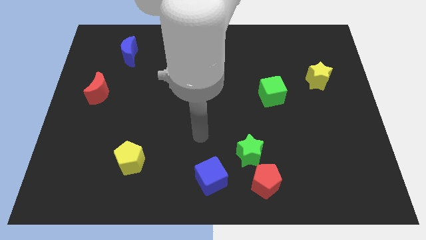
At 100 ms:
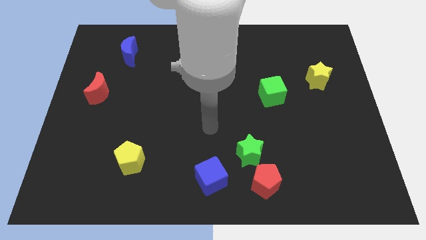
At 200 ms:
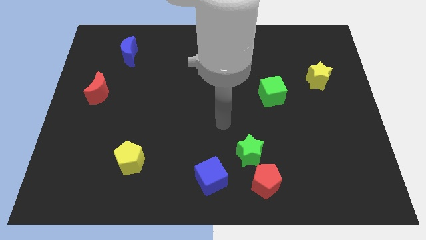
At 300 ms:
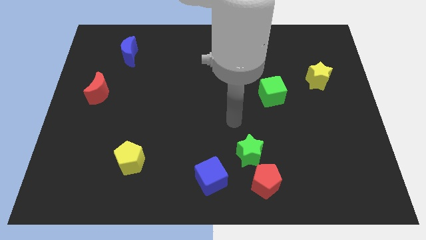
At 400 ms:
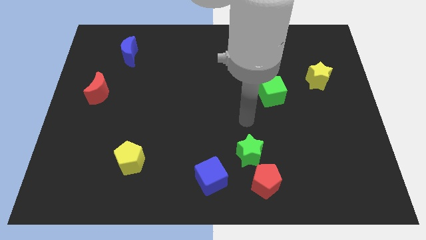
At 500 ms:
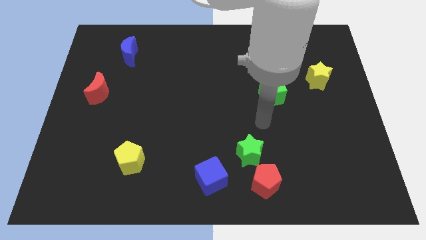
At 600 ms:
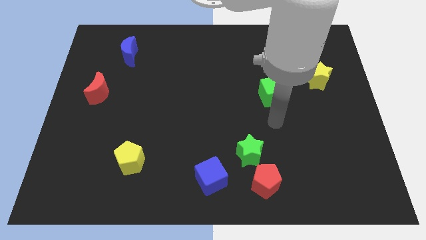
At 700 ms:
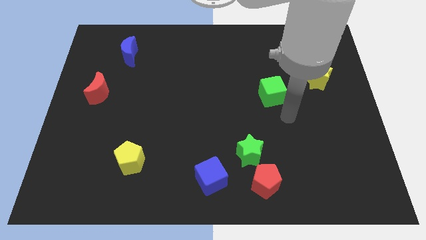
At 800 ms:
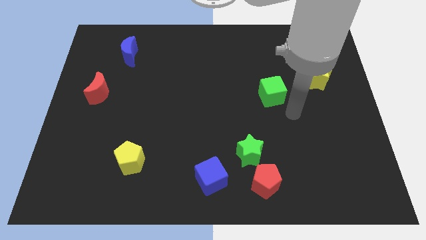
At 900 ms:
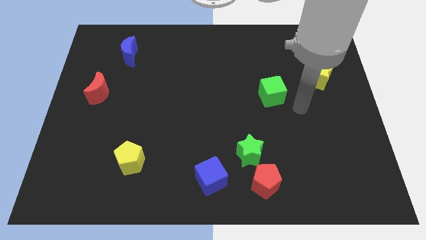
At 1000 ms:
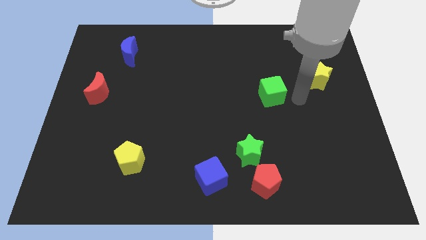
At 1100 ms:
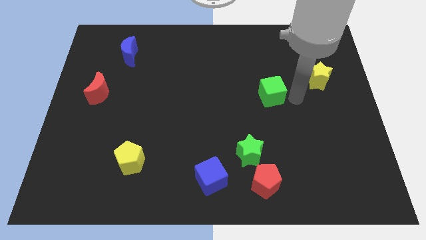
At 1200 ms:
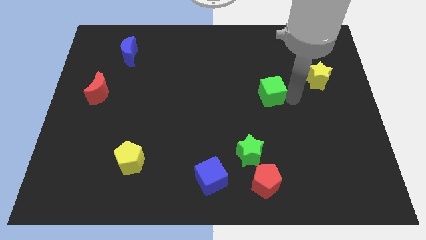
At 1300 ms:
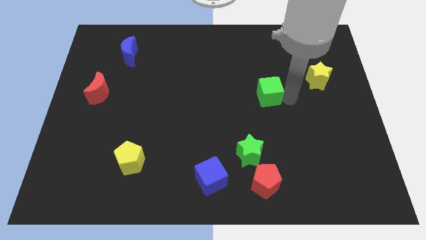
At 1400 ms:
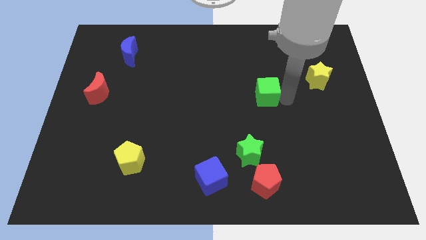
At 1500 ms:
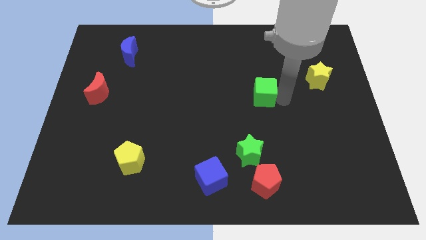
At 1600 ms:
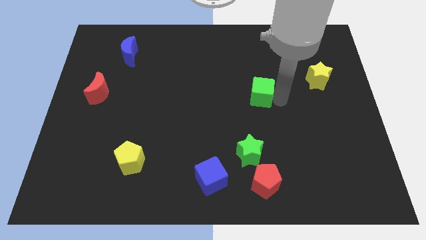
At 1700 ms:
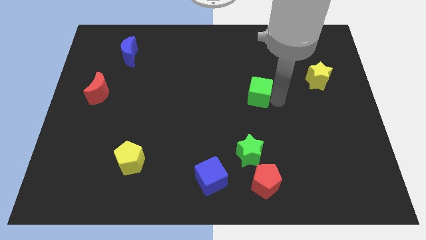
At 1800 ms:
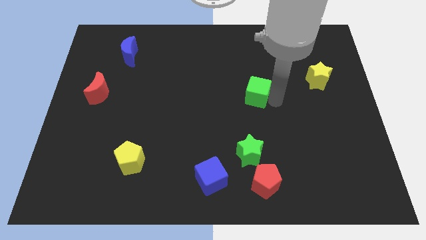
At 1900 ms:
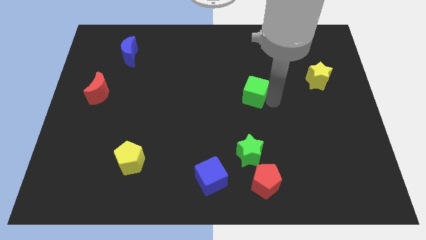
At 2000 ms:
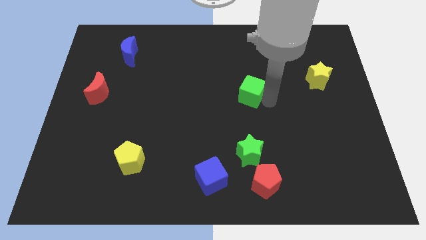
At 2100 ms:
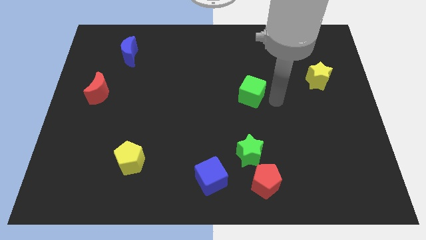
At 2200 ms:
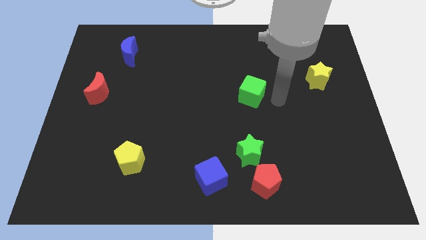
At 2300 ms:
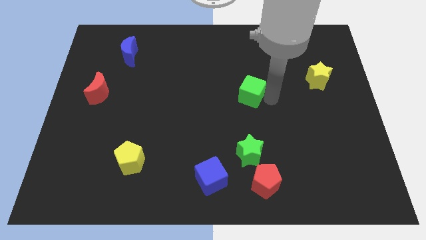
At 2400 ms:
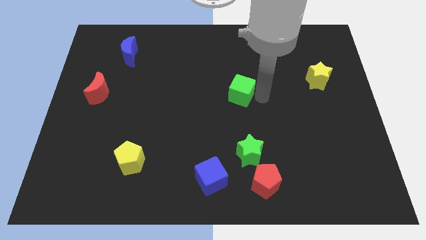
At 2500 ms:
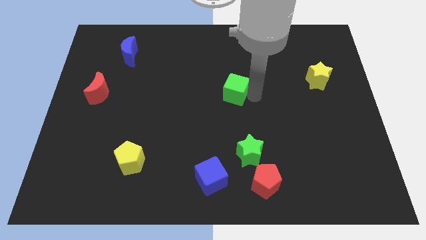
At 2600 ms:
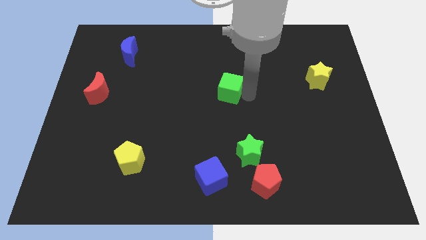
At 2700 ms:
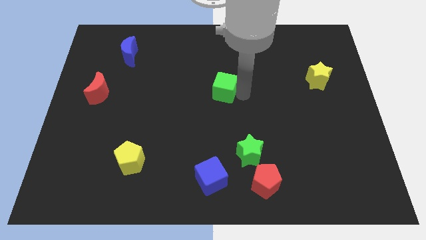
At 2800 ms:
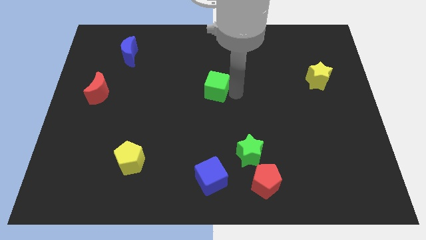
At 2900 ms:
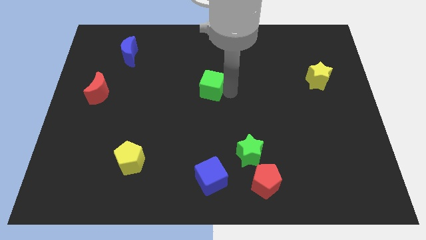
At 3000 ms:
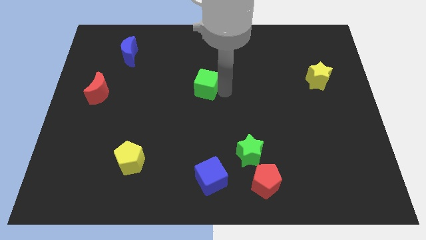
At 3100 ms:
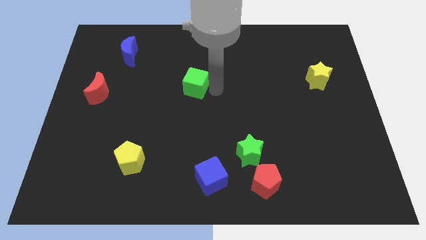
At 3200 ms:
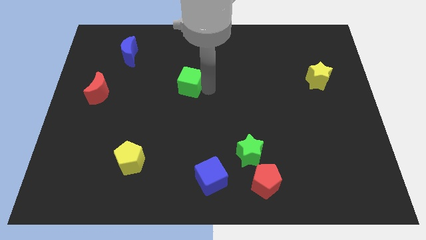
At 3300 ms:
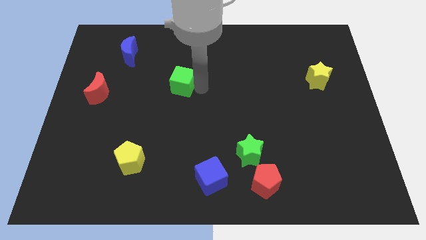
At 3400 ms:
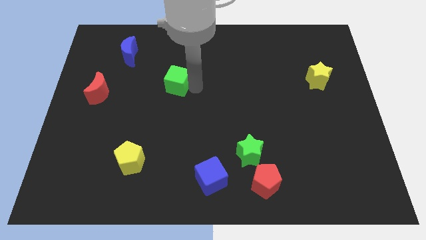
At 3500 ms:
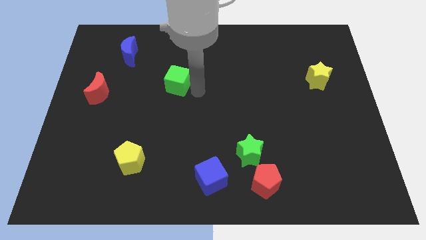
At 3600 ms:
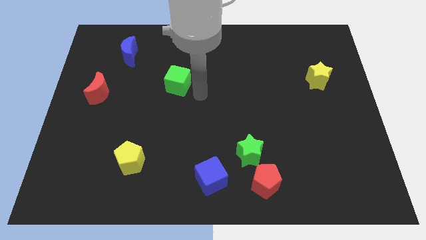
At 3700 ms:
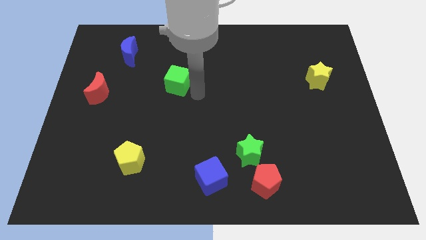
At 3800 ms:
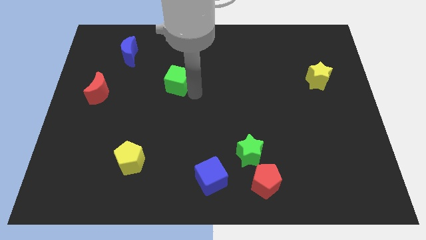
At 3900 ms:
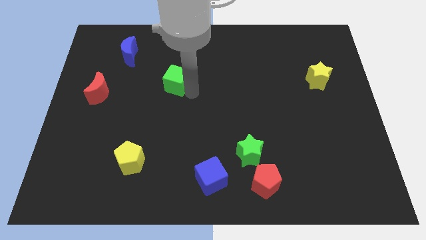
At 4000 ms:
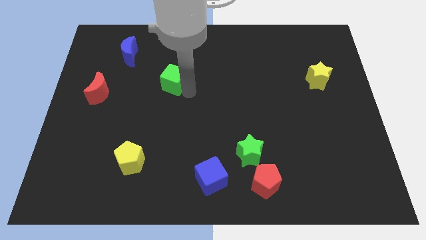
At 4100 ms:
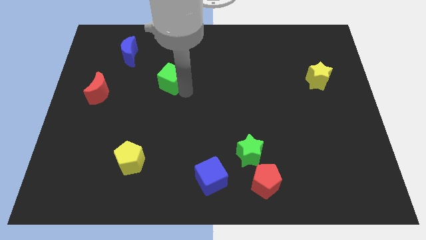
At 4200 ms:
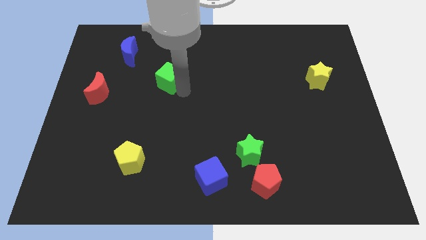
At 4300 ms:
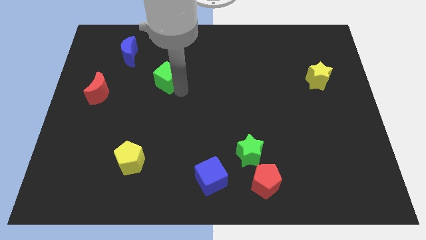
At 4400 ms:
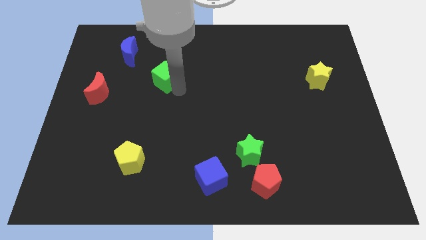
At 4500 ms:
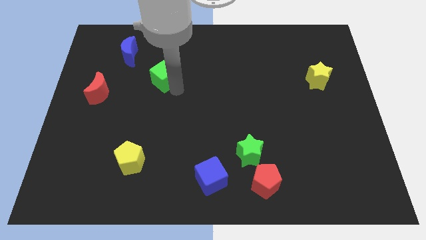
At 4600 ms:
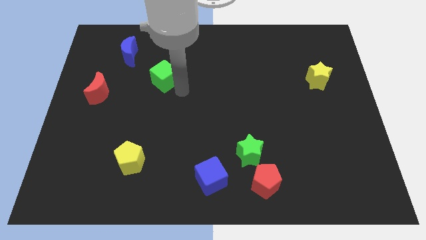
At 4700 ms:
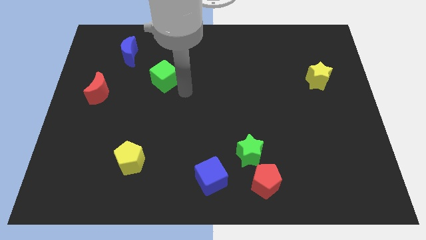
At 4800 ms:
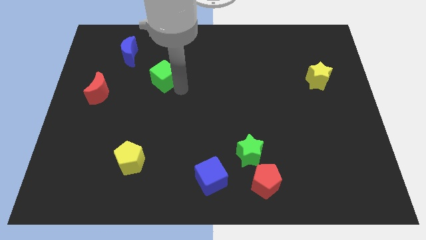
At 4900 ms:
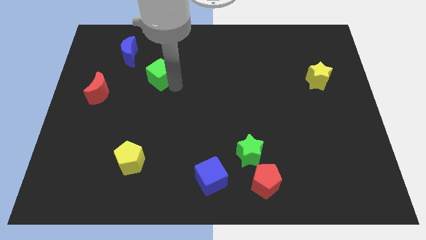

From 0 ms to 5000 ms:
push the green cube to the bottom right of the blue moon

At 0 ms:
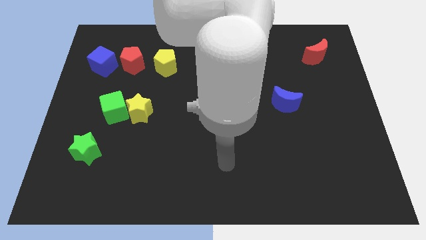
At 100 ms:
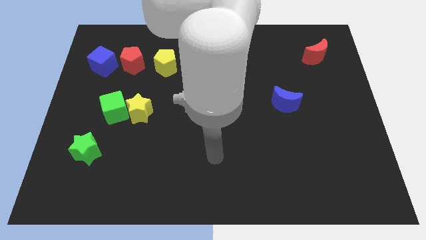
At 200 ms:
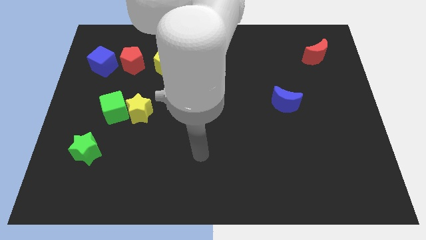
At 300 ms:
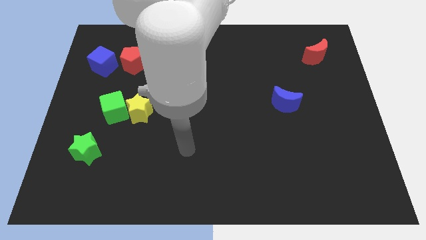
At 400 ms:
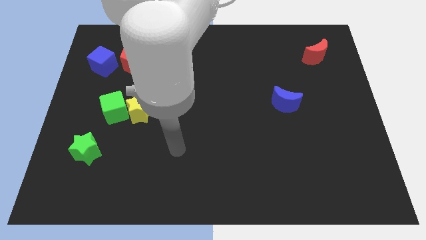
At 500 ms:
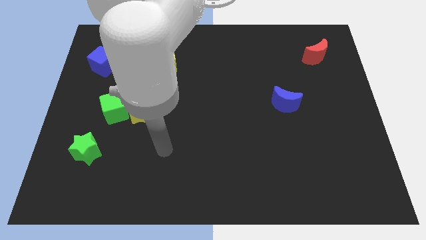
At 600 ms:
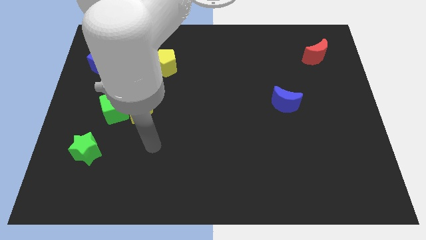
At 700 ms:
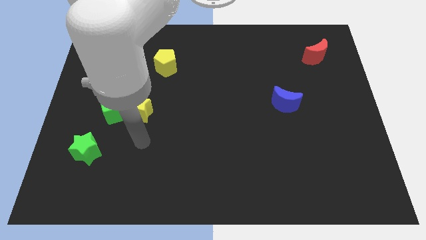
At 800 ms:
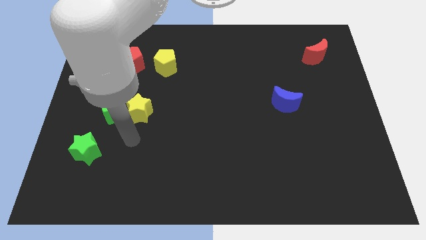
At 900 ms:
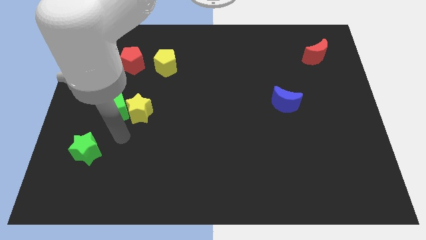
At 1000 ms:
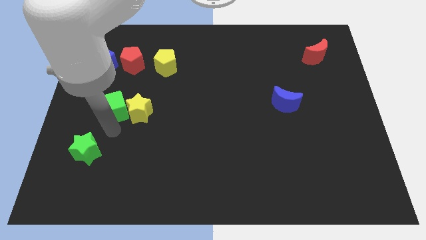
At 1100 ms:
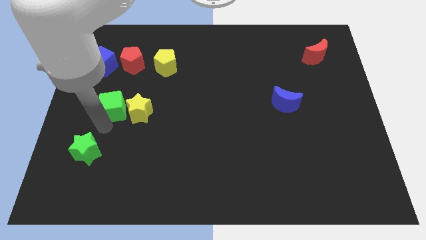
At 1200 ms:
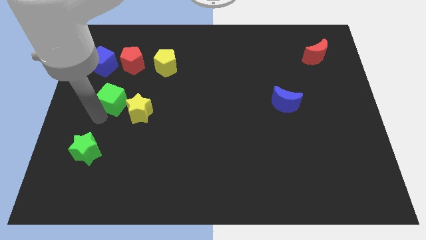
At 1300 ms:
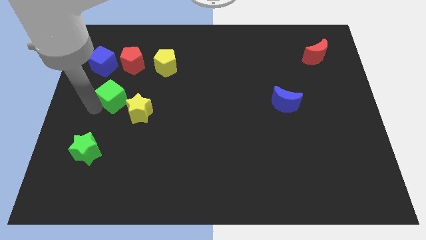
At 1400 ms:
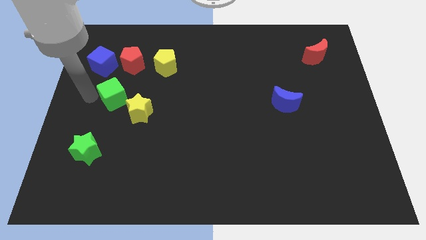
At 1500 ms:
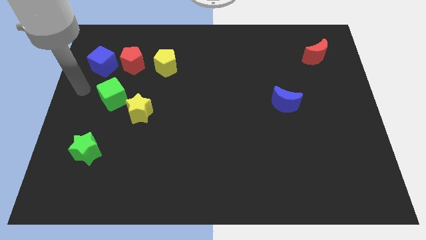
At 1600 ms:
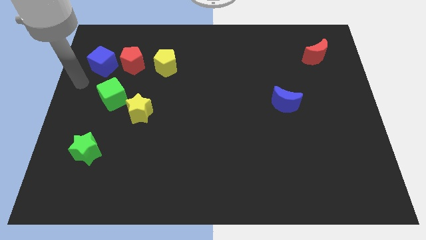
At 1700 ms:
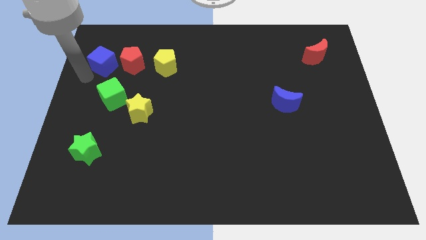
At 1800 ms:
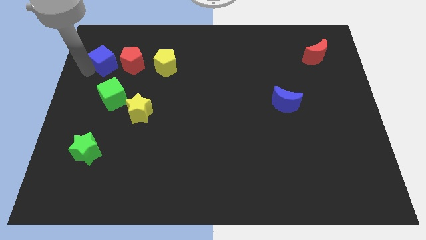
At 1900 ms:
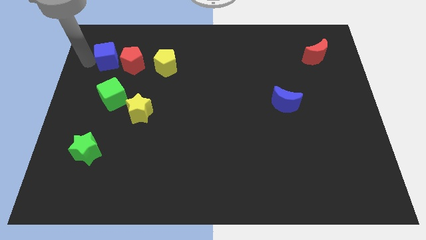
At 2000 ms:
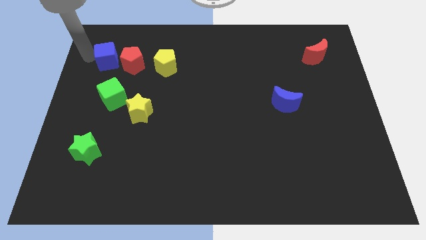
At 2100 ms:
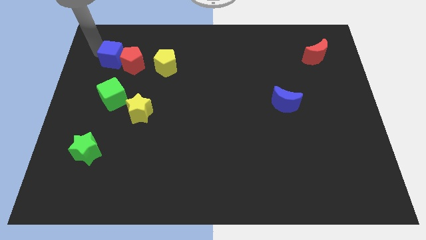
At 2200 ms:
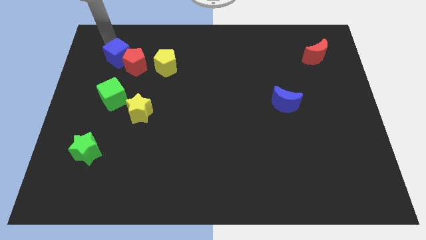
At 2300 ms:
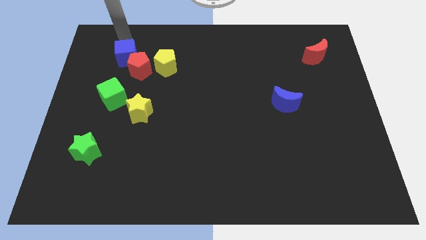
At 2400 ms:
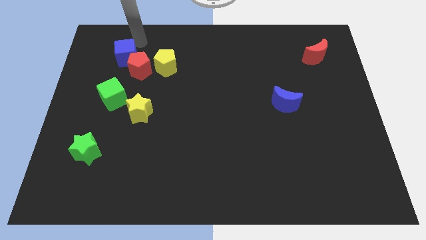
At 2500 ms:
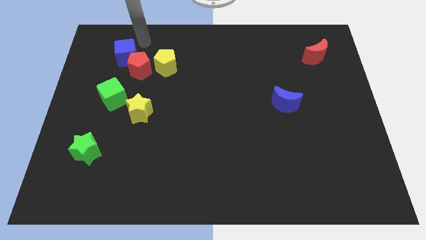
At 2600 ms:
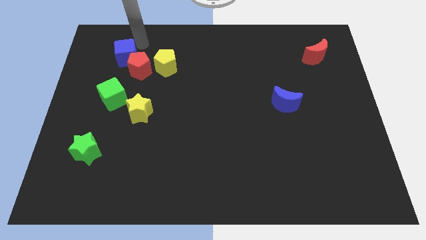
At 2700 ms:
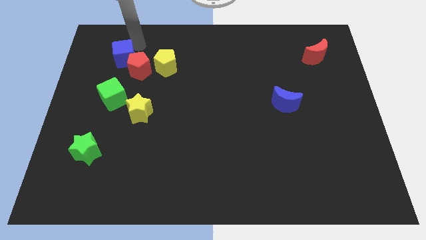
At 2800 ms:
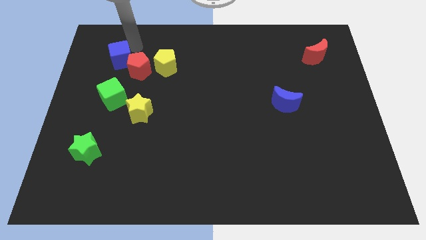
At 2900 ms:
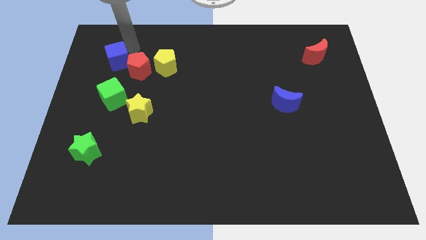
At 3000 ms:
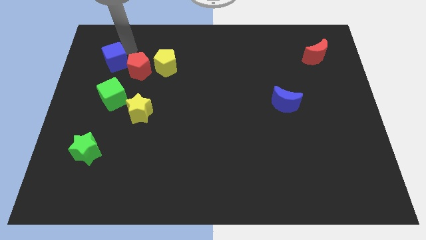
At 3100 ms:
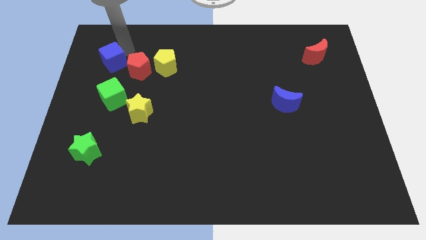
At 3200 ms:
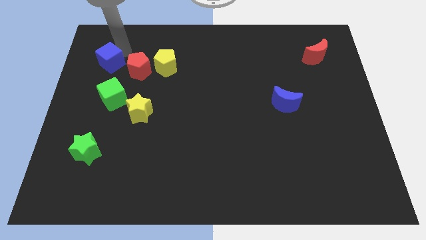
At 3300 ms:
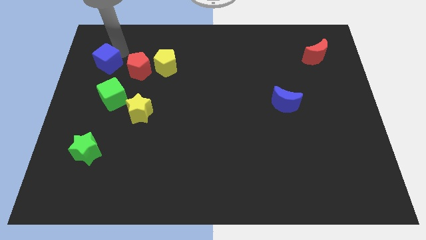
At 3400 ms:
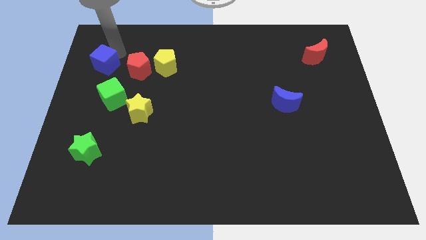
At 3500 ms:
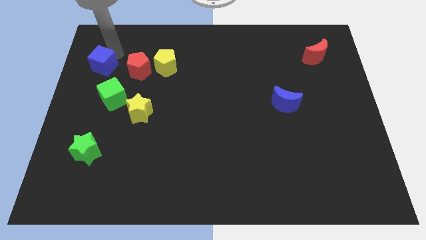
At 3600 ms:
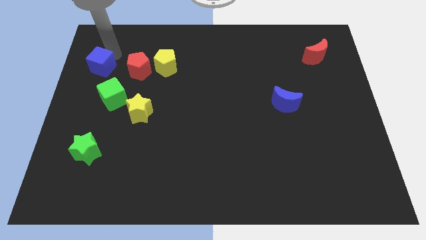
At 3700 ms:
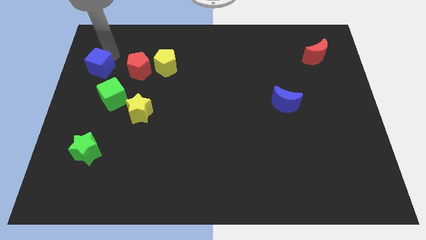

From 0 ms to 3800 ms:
push the blue cube to the top left side of the green cube
